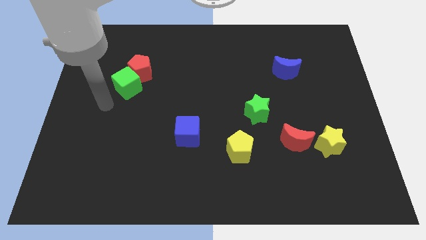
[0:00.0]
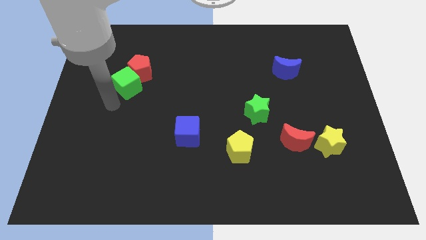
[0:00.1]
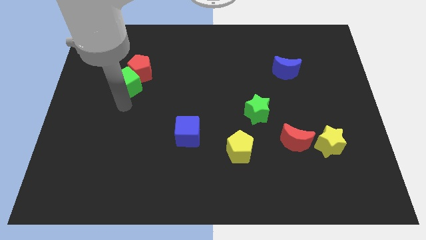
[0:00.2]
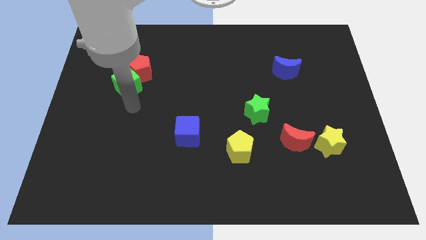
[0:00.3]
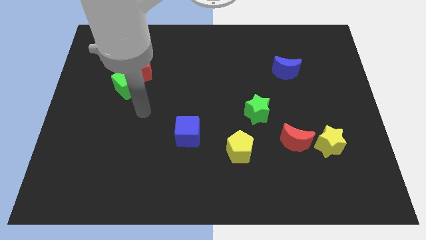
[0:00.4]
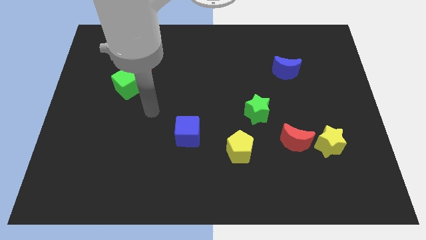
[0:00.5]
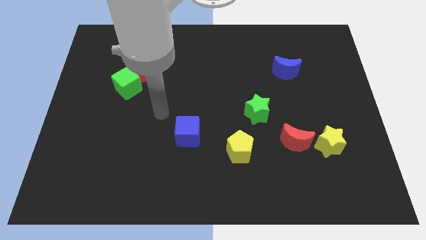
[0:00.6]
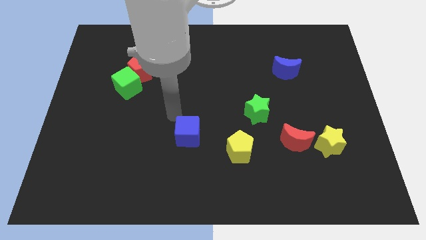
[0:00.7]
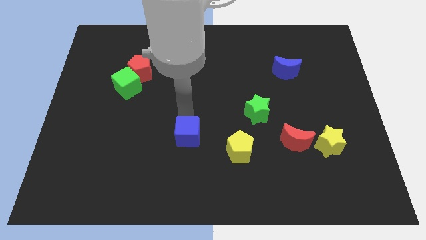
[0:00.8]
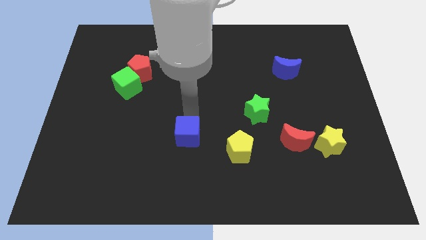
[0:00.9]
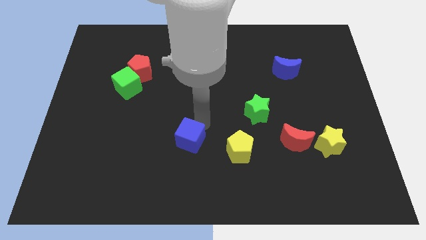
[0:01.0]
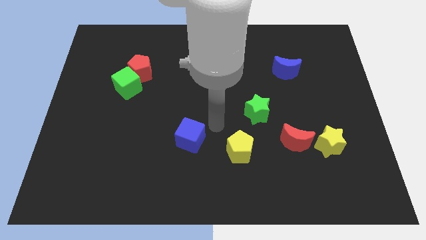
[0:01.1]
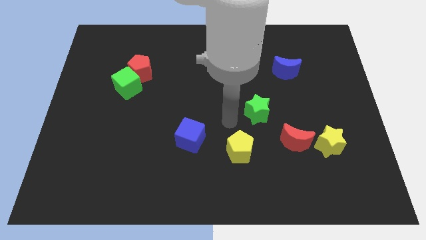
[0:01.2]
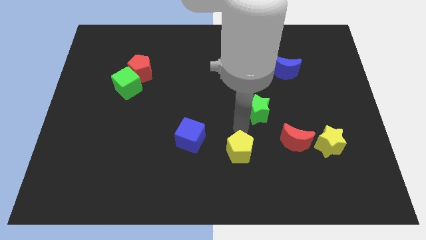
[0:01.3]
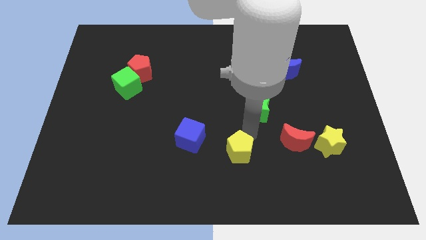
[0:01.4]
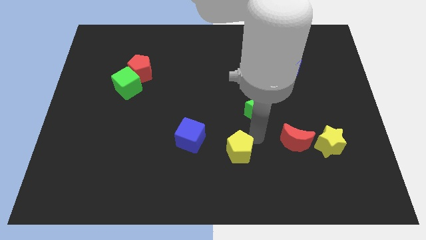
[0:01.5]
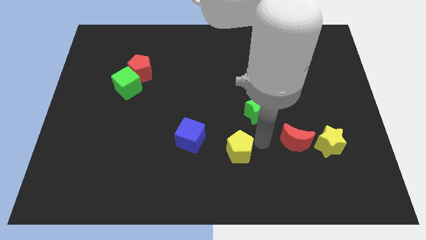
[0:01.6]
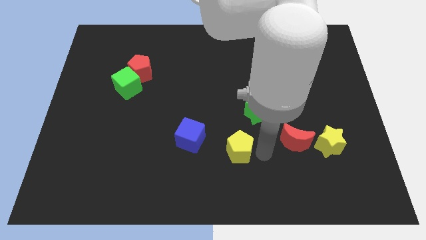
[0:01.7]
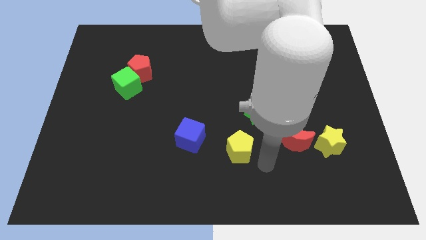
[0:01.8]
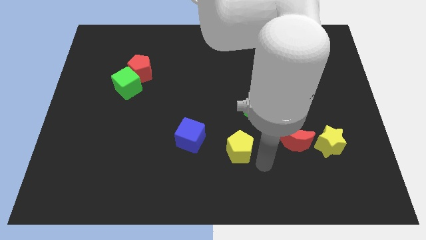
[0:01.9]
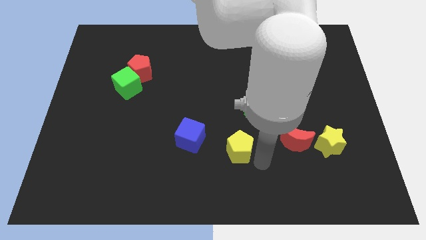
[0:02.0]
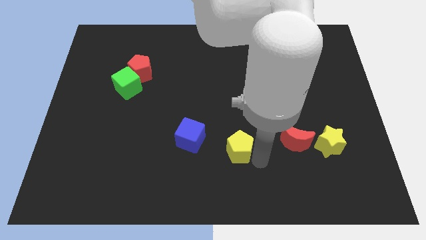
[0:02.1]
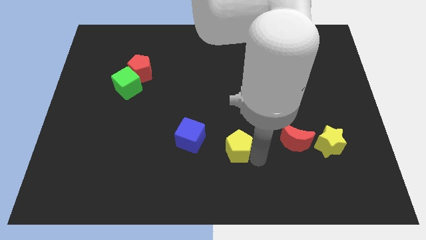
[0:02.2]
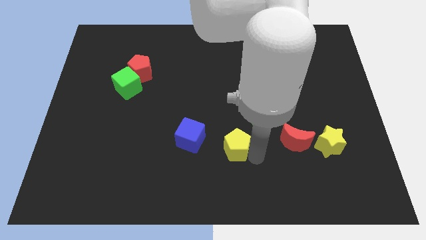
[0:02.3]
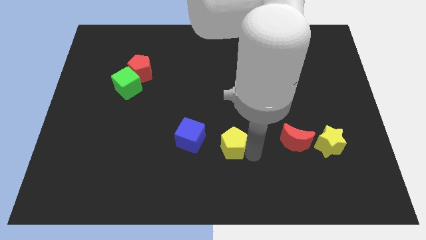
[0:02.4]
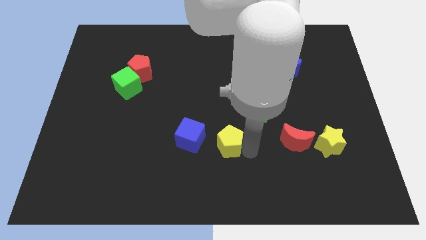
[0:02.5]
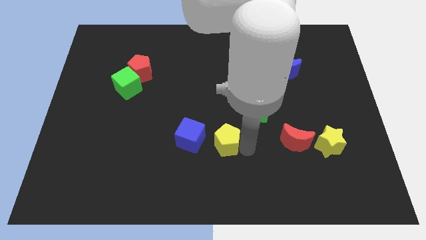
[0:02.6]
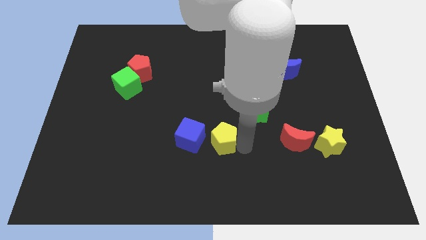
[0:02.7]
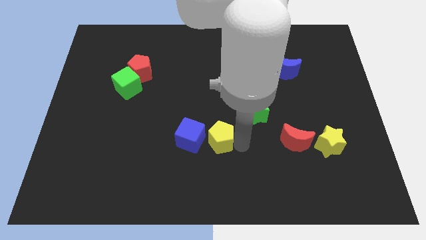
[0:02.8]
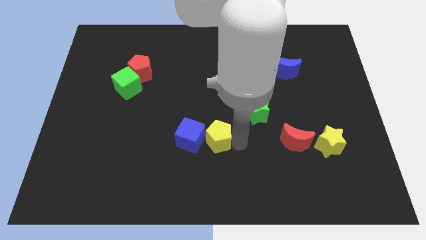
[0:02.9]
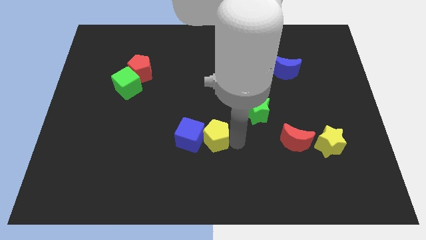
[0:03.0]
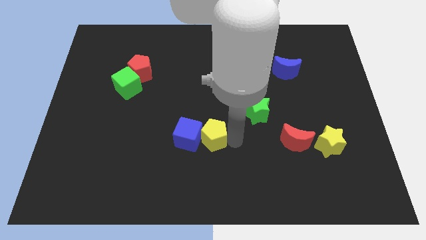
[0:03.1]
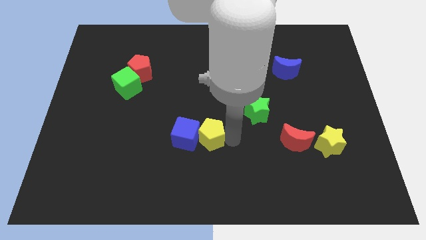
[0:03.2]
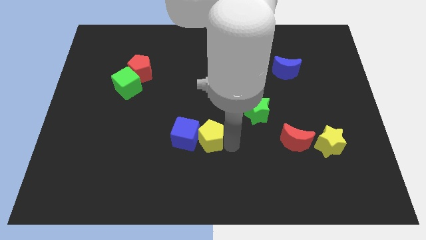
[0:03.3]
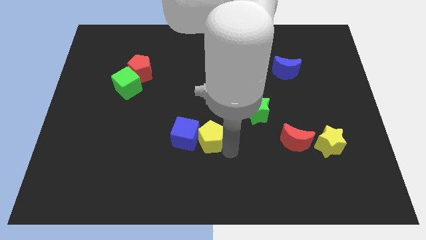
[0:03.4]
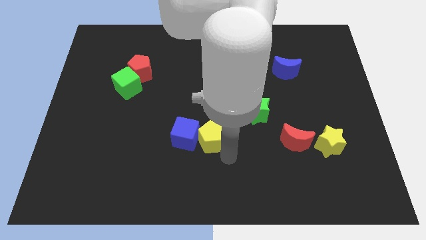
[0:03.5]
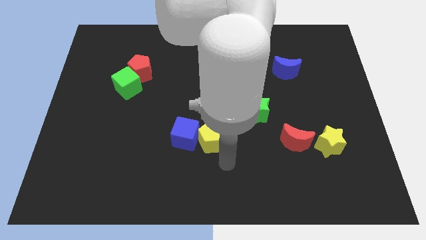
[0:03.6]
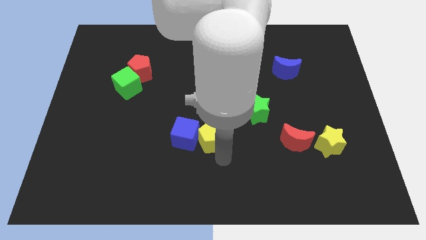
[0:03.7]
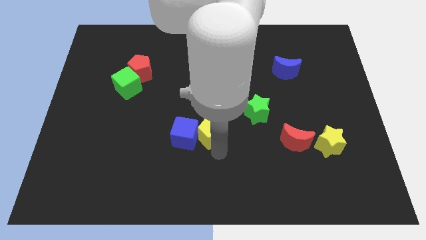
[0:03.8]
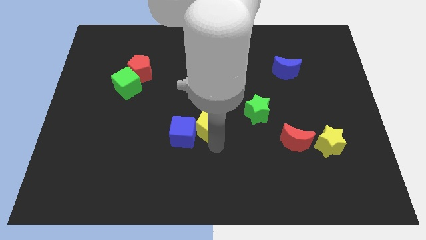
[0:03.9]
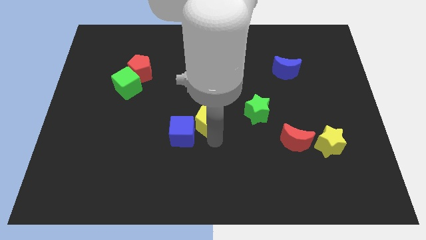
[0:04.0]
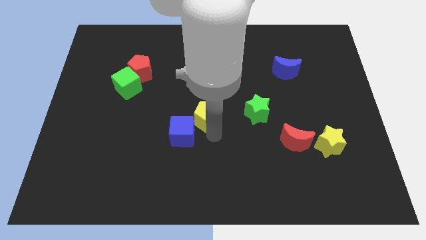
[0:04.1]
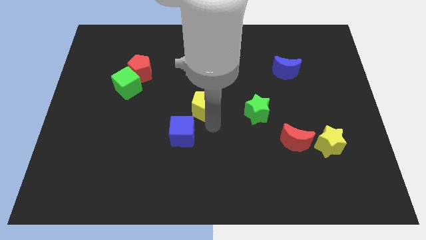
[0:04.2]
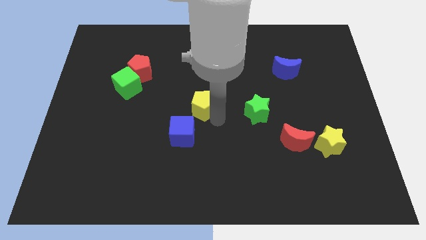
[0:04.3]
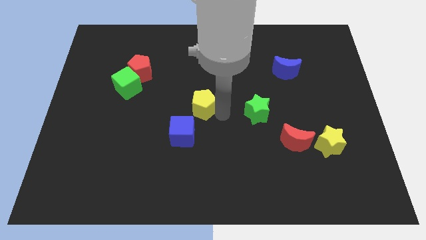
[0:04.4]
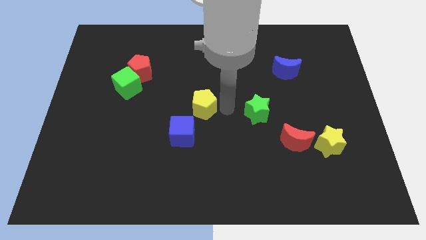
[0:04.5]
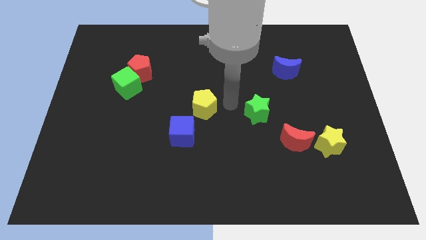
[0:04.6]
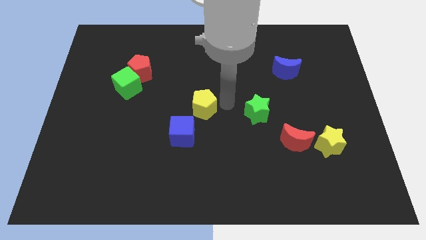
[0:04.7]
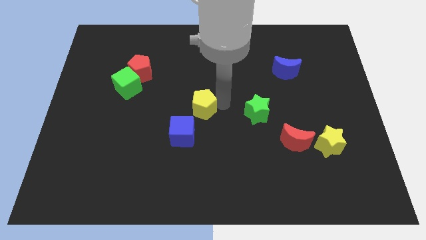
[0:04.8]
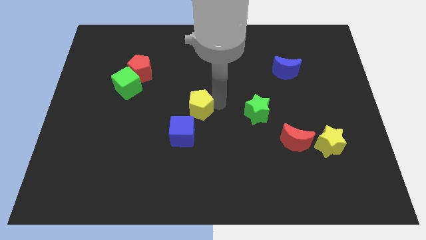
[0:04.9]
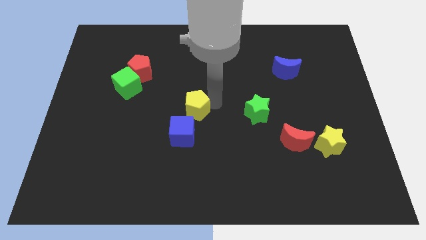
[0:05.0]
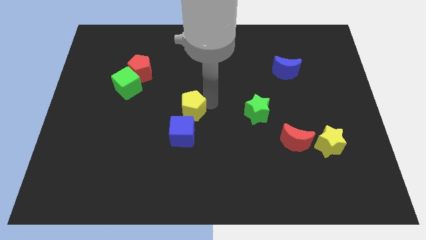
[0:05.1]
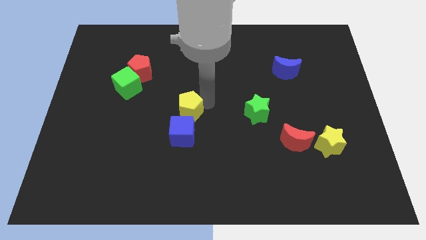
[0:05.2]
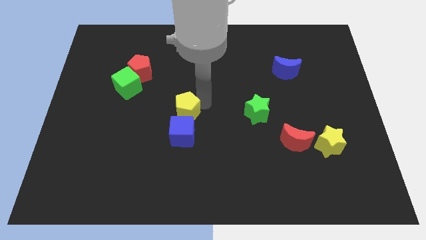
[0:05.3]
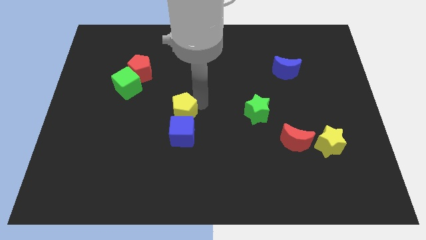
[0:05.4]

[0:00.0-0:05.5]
push the yellow pentagon diagonally up and to the left of the blue cube

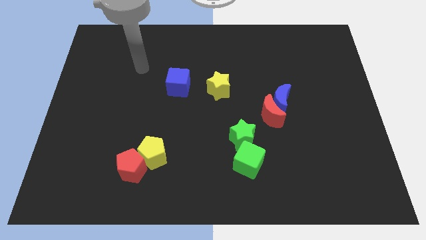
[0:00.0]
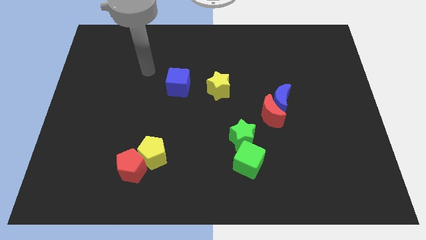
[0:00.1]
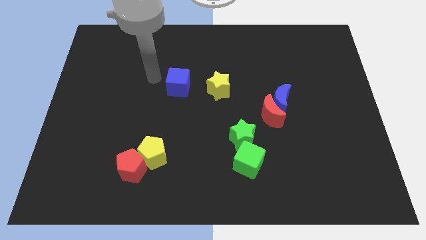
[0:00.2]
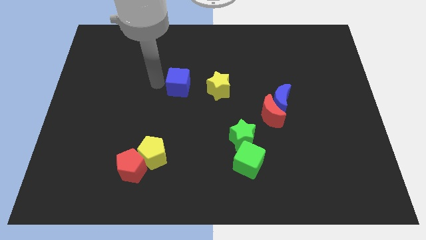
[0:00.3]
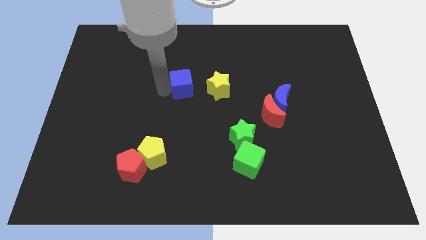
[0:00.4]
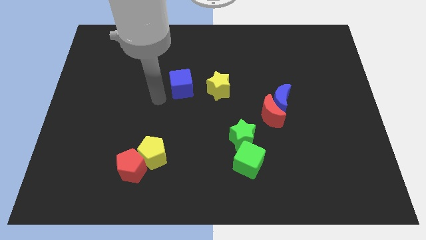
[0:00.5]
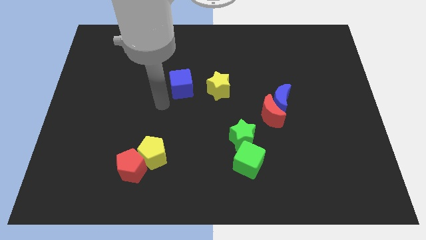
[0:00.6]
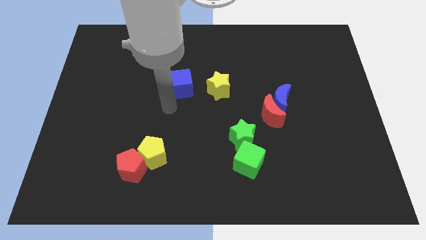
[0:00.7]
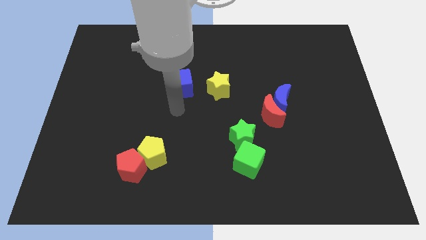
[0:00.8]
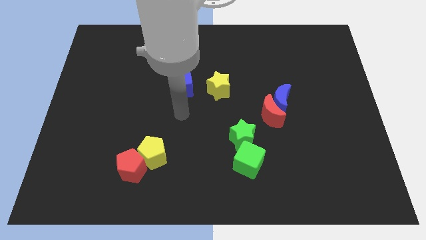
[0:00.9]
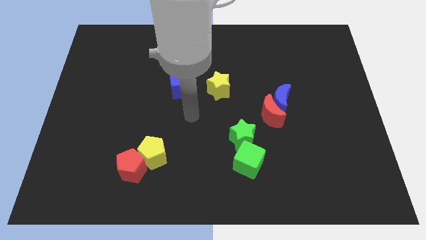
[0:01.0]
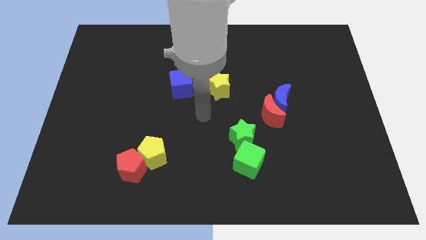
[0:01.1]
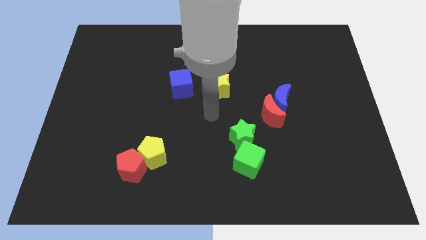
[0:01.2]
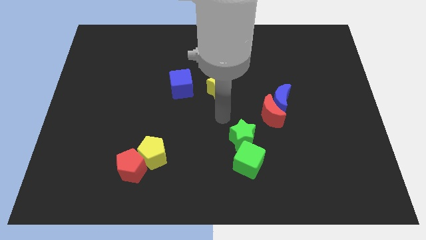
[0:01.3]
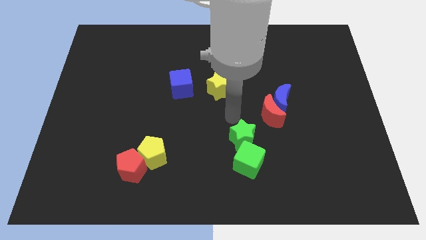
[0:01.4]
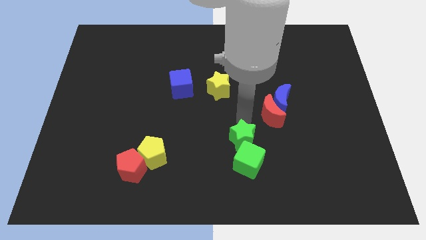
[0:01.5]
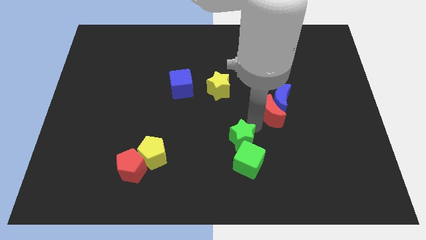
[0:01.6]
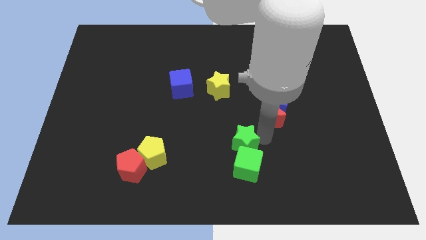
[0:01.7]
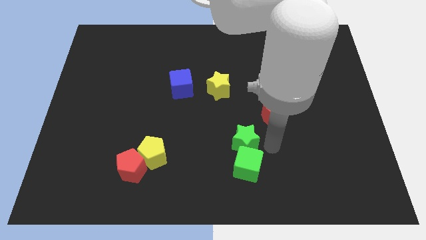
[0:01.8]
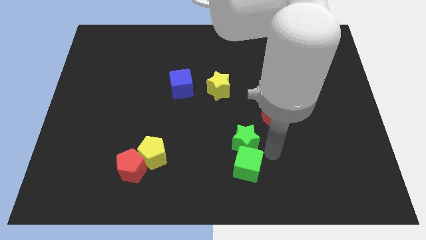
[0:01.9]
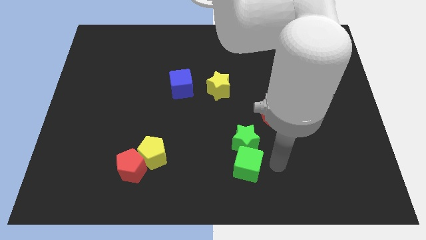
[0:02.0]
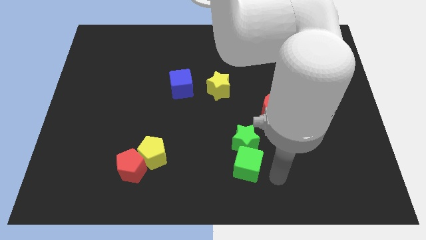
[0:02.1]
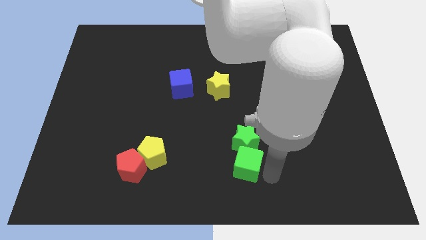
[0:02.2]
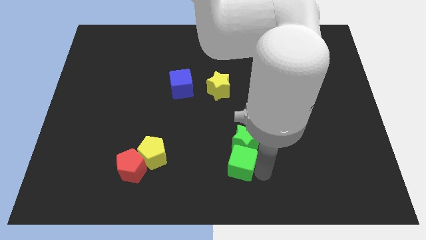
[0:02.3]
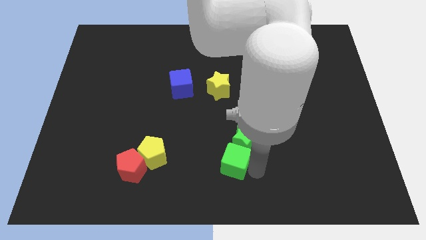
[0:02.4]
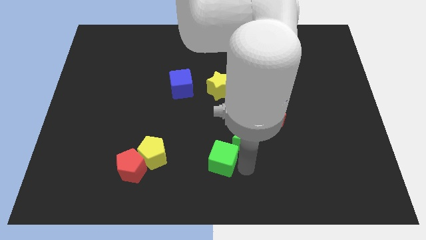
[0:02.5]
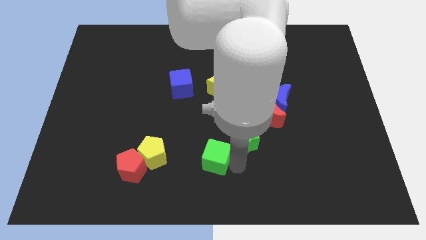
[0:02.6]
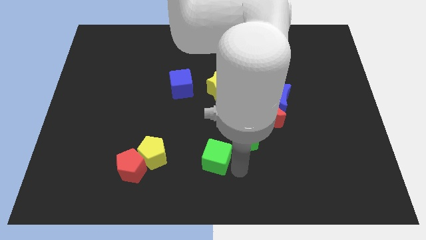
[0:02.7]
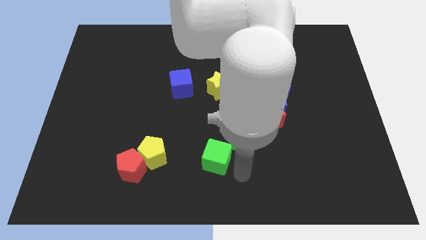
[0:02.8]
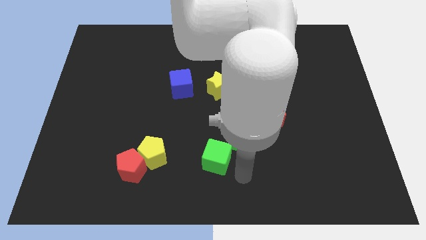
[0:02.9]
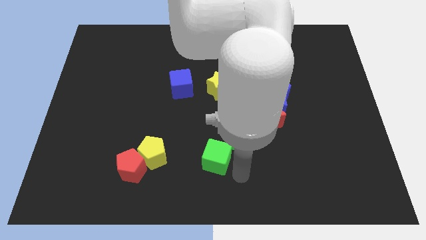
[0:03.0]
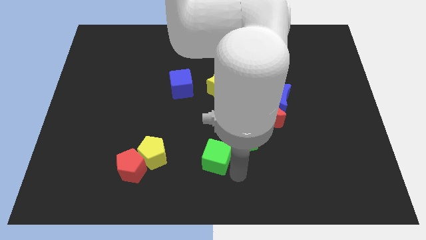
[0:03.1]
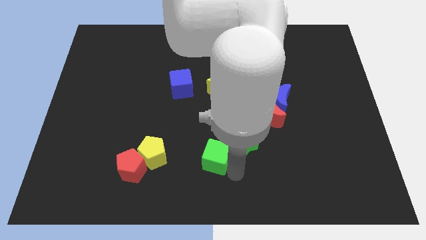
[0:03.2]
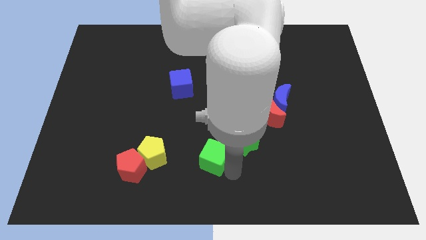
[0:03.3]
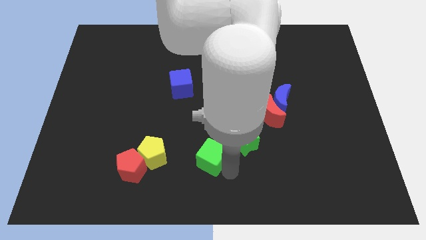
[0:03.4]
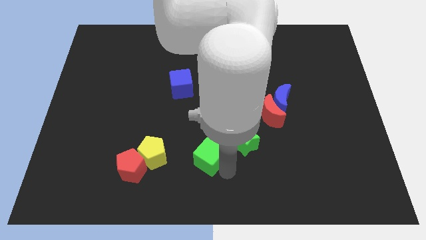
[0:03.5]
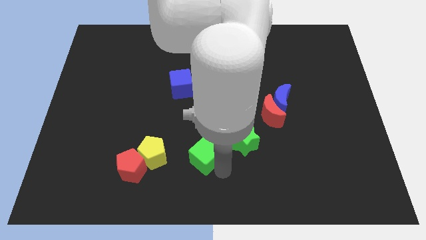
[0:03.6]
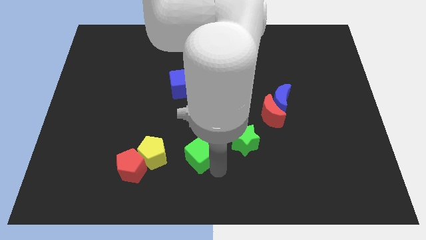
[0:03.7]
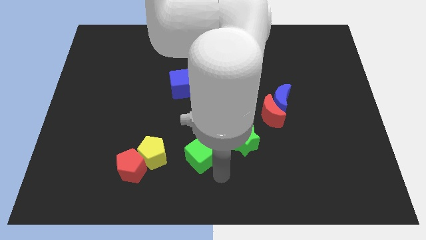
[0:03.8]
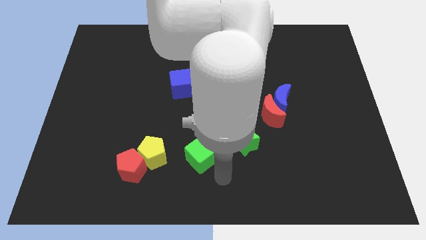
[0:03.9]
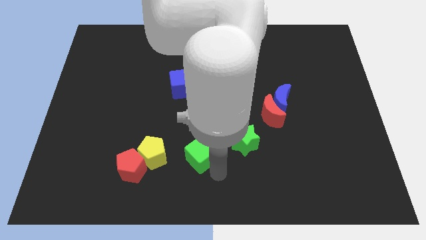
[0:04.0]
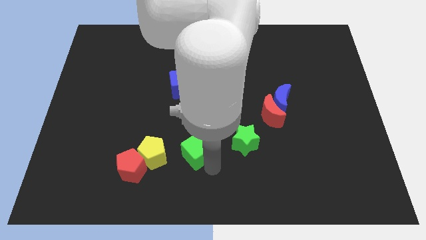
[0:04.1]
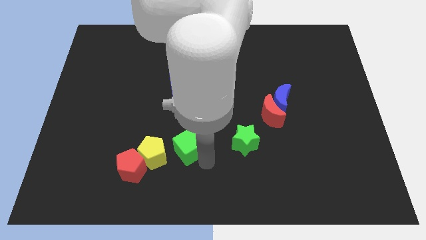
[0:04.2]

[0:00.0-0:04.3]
move the green cube to the top right of the yellow pentagon
